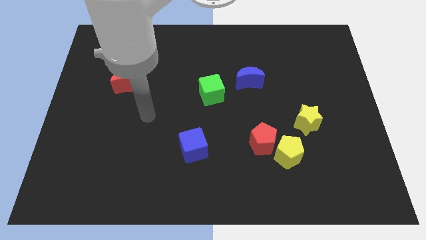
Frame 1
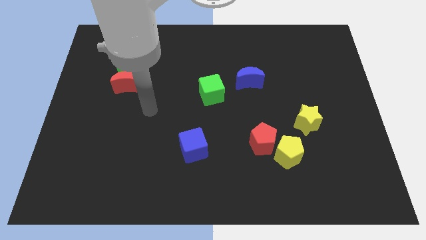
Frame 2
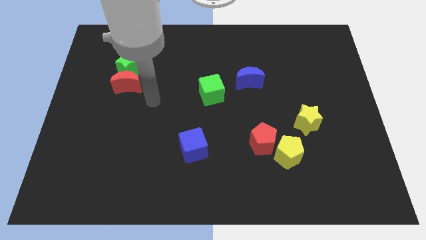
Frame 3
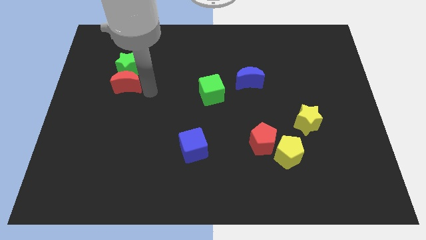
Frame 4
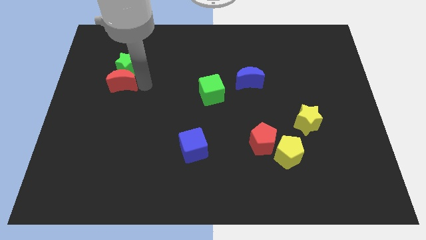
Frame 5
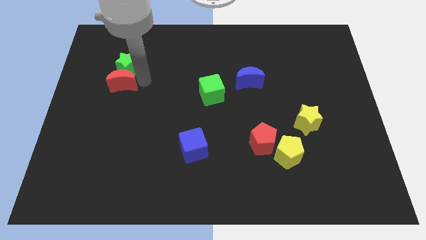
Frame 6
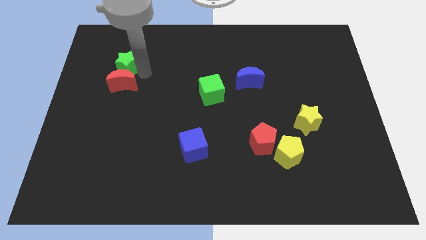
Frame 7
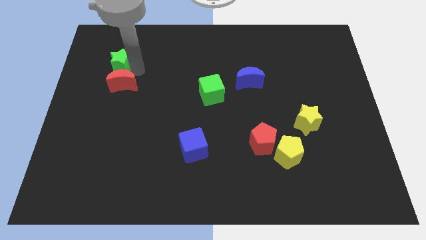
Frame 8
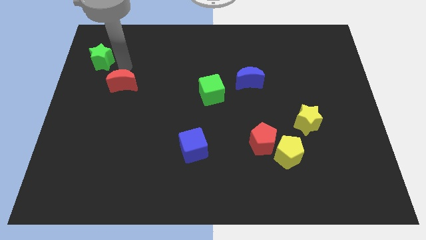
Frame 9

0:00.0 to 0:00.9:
pull the red moon apart from the green star

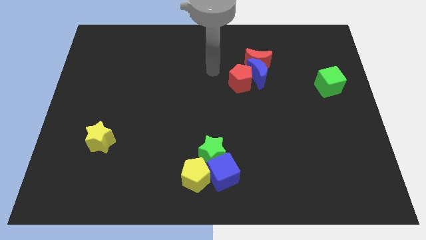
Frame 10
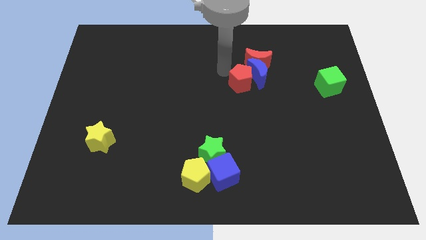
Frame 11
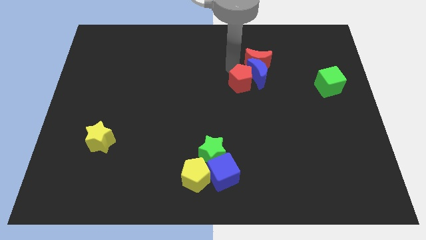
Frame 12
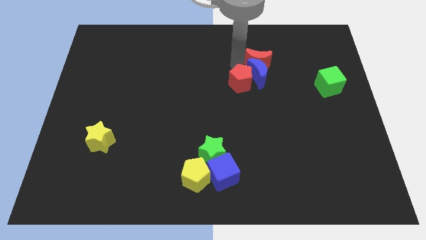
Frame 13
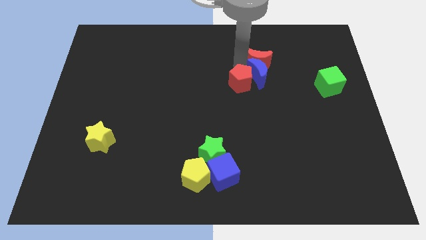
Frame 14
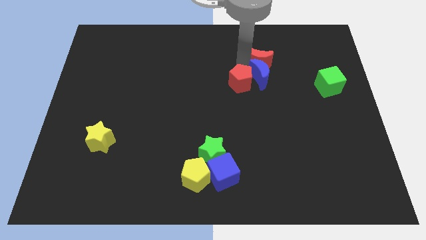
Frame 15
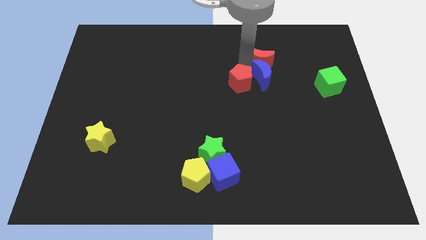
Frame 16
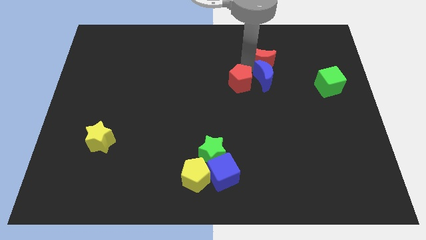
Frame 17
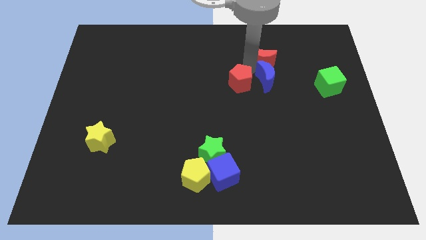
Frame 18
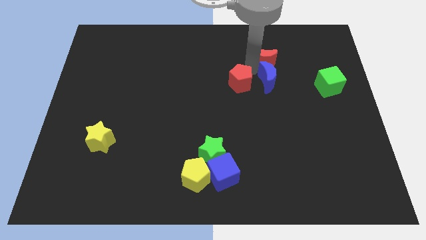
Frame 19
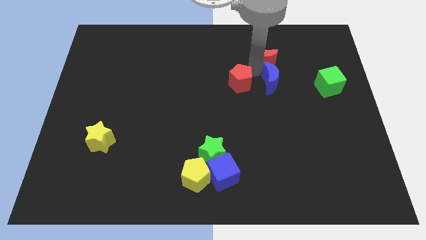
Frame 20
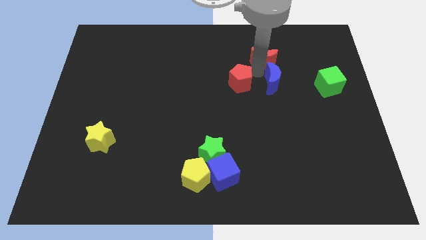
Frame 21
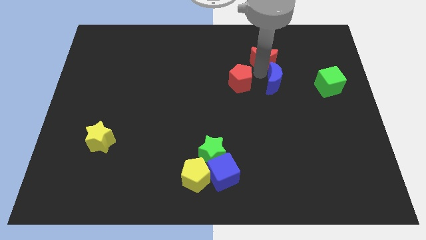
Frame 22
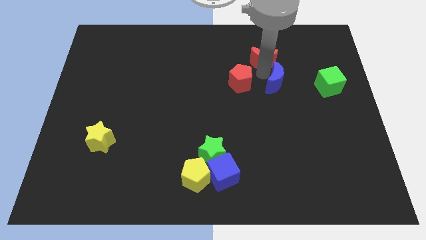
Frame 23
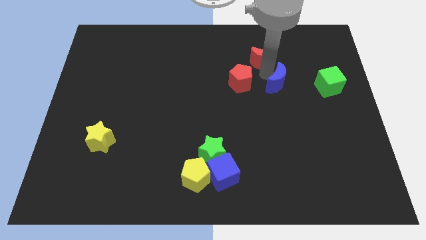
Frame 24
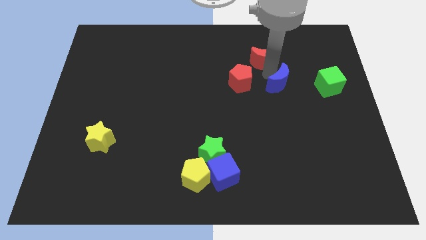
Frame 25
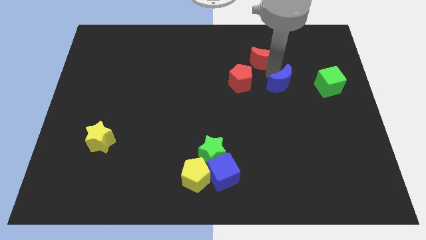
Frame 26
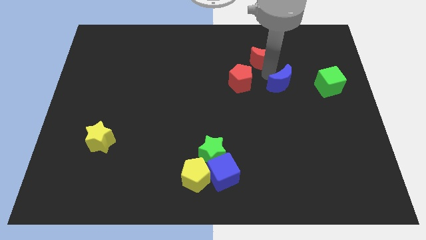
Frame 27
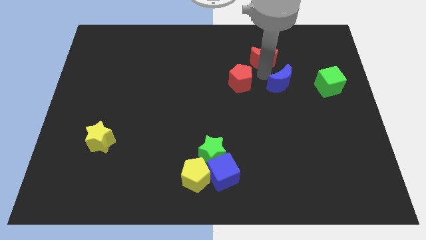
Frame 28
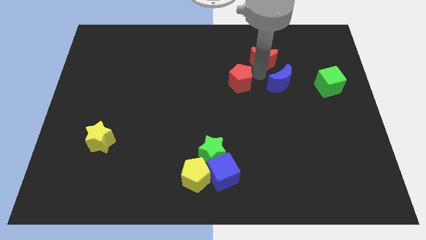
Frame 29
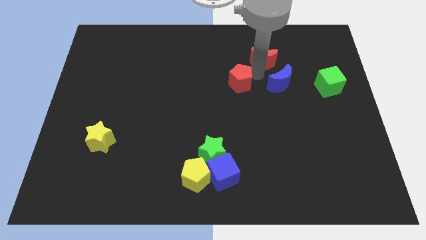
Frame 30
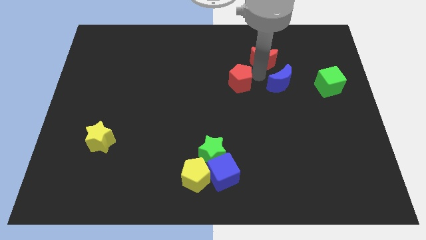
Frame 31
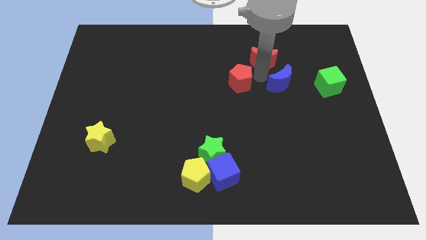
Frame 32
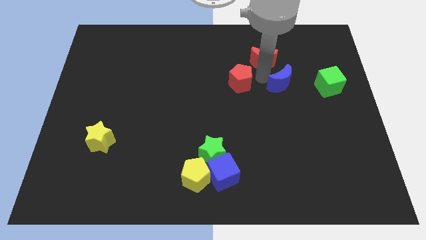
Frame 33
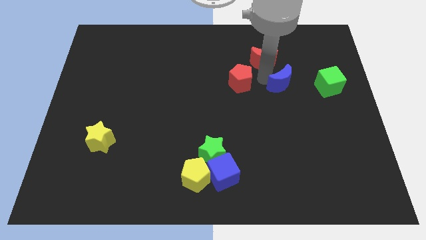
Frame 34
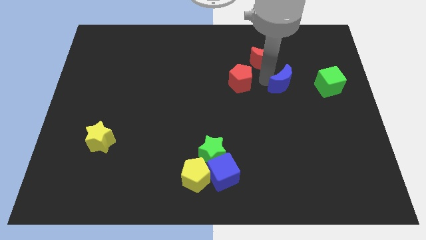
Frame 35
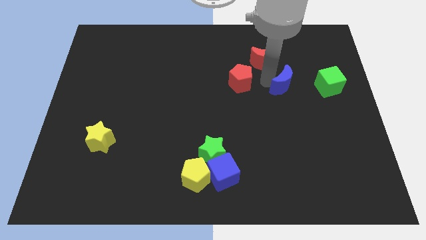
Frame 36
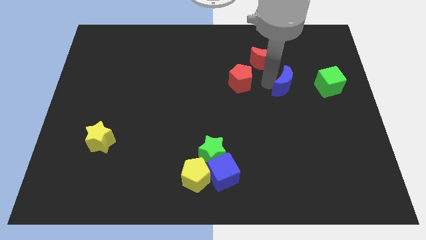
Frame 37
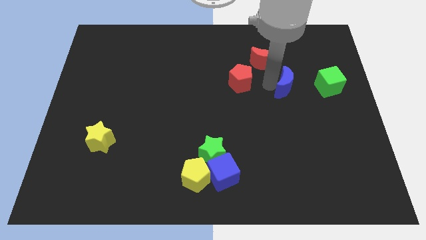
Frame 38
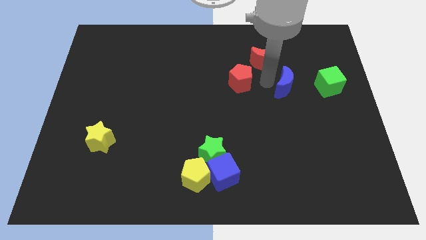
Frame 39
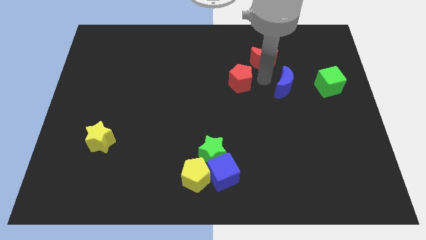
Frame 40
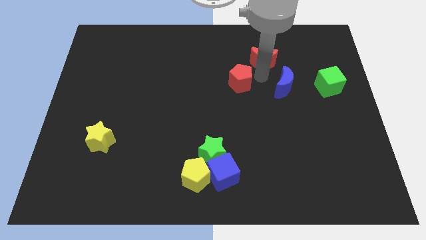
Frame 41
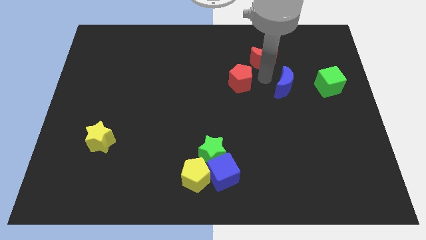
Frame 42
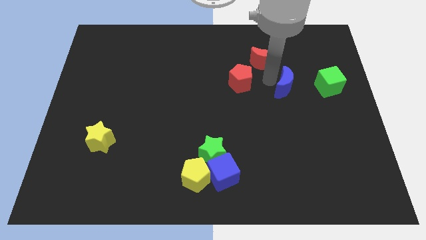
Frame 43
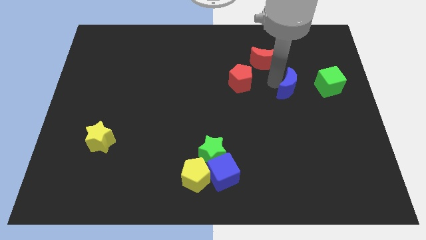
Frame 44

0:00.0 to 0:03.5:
pull the blue moon apart from the red moon and red pentagon

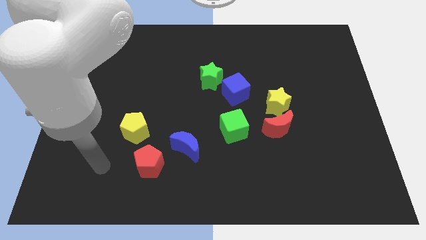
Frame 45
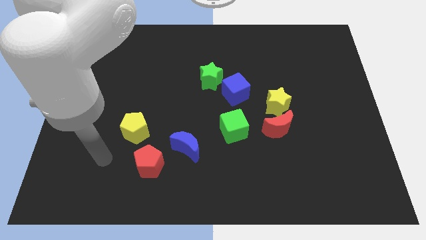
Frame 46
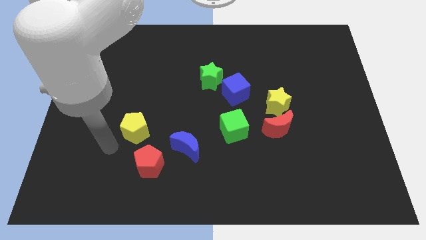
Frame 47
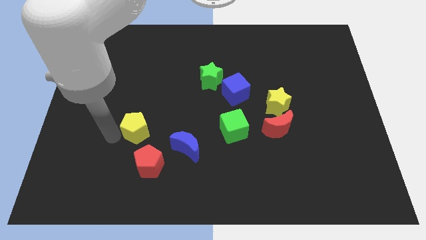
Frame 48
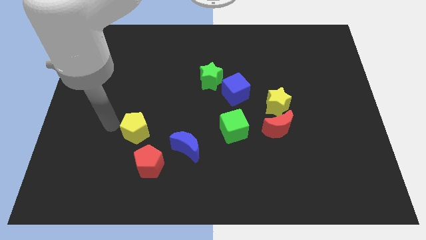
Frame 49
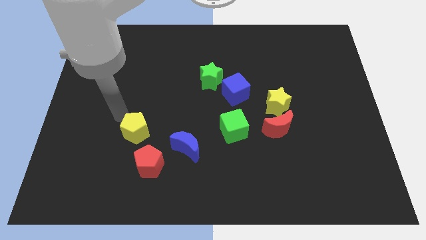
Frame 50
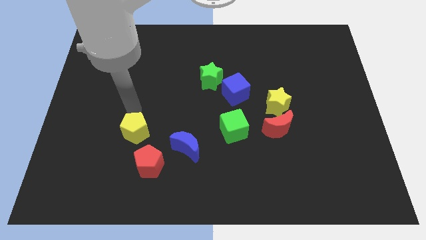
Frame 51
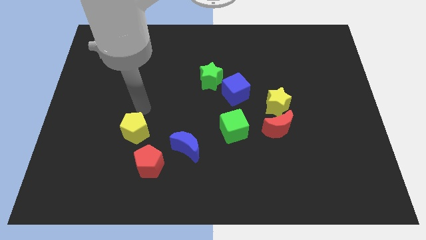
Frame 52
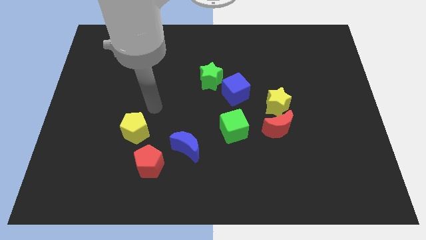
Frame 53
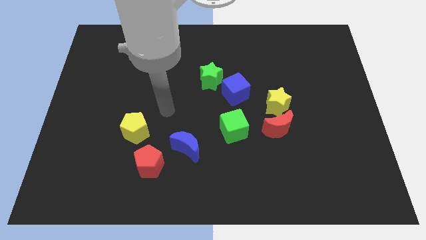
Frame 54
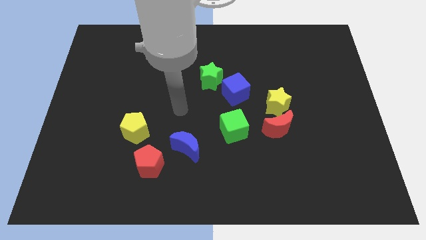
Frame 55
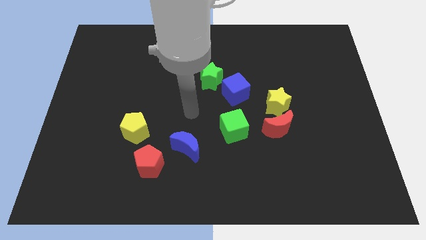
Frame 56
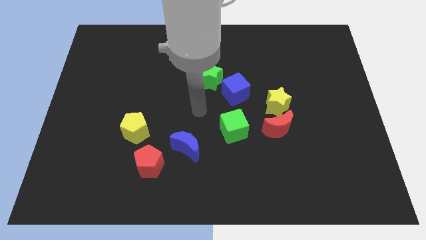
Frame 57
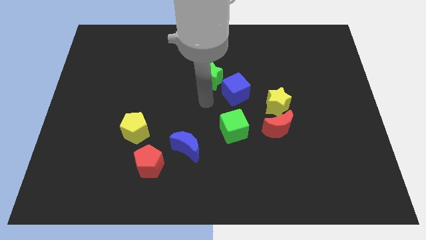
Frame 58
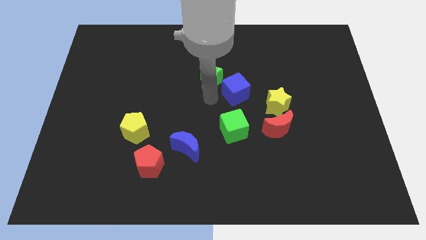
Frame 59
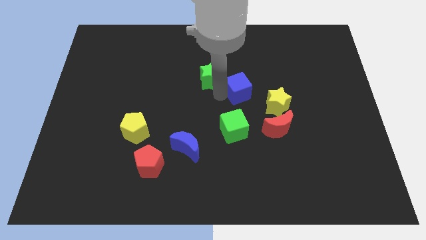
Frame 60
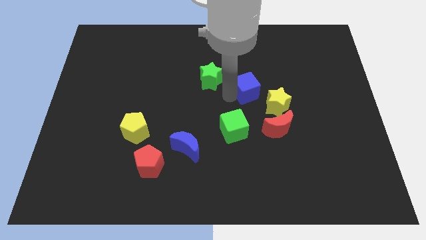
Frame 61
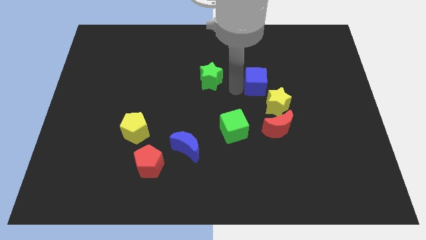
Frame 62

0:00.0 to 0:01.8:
move the green star away from the blue cube

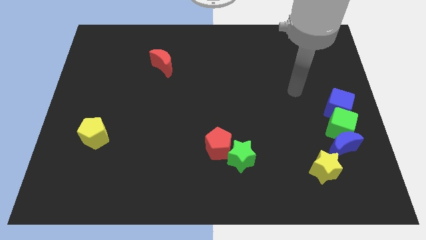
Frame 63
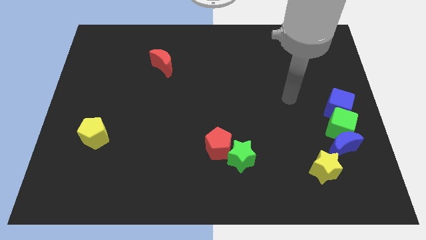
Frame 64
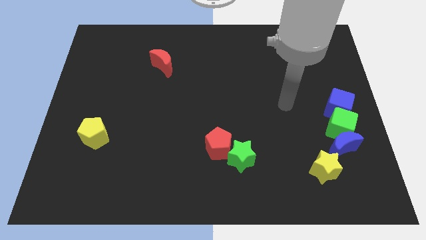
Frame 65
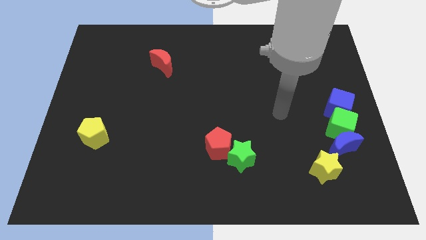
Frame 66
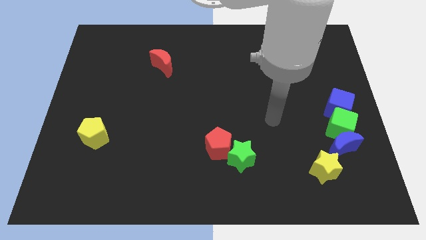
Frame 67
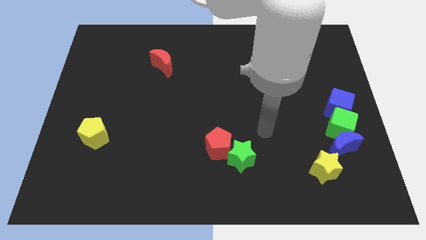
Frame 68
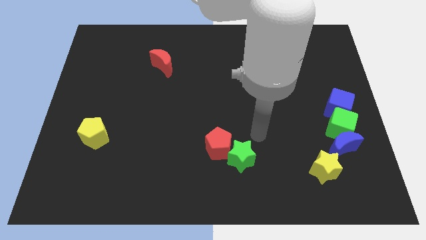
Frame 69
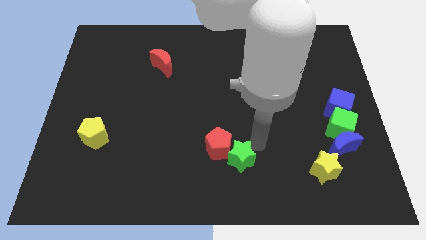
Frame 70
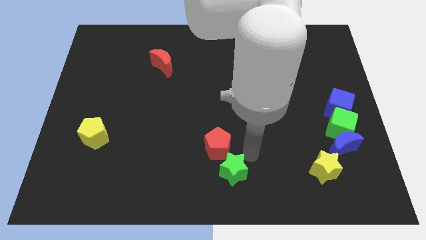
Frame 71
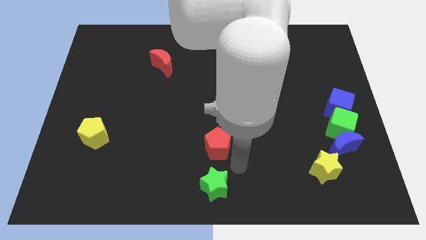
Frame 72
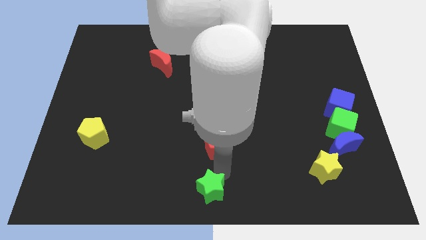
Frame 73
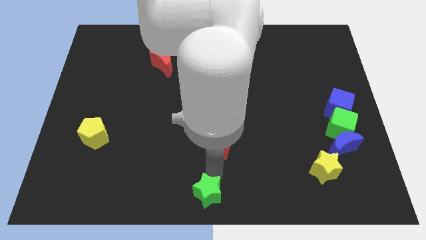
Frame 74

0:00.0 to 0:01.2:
pull the red pentagon apart from the green star

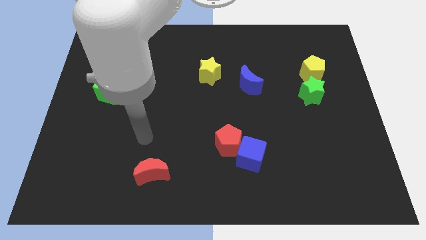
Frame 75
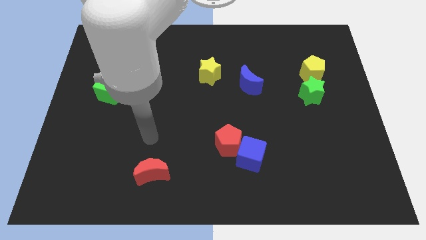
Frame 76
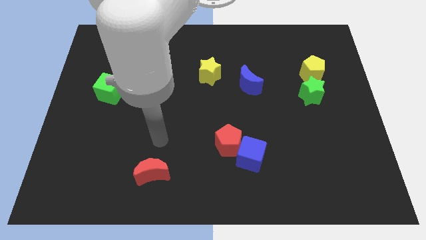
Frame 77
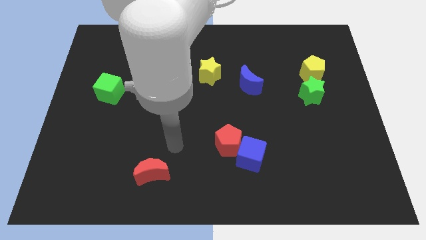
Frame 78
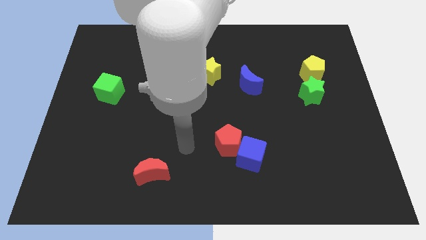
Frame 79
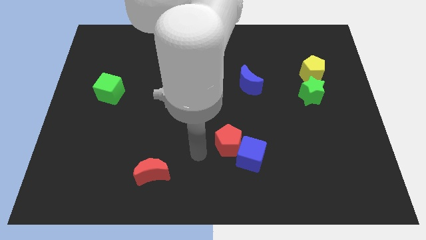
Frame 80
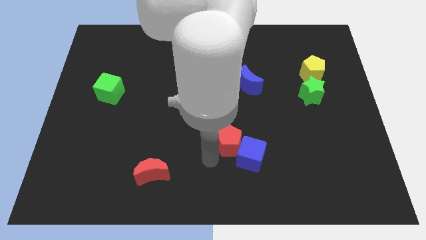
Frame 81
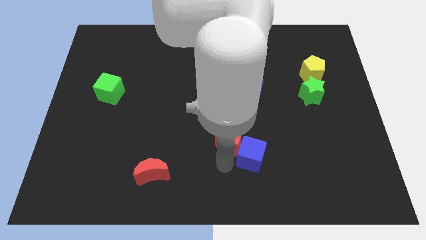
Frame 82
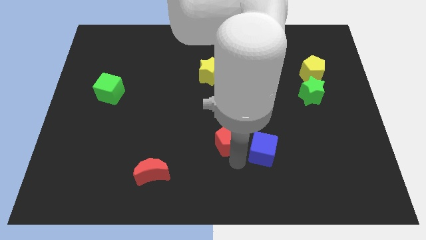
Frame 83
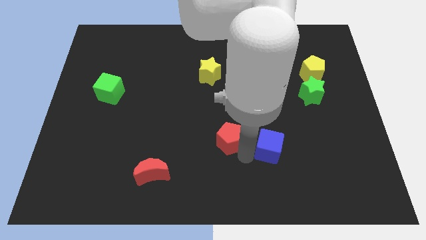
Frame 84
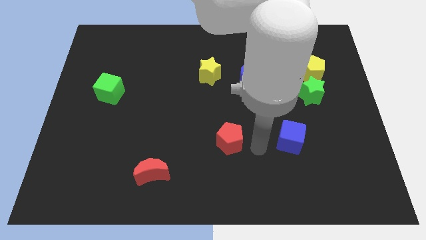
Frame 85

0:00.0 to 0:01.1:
separate the red pentagon from the blue cube

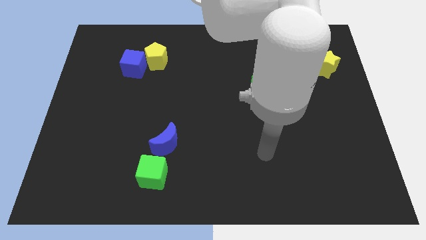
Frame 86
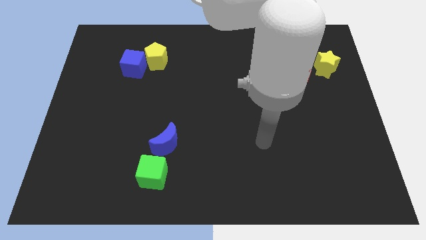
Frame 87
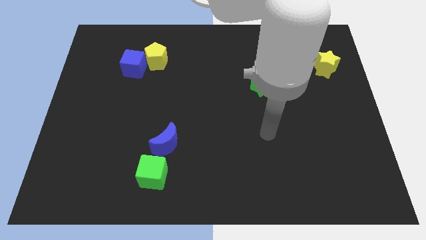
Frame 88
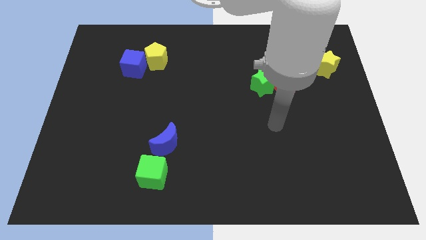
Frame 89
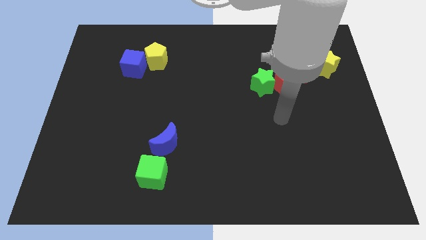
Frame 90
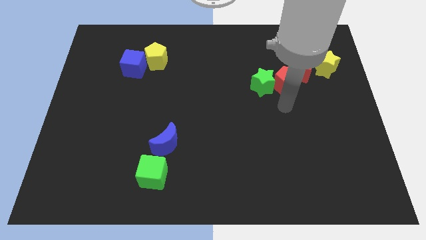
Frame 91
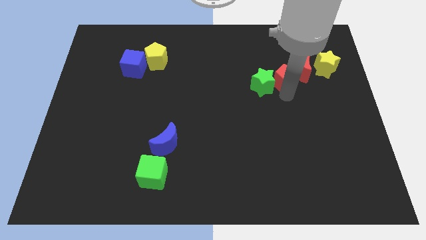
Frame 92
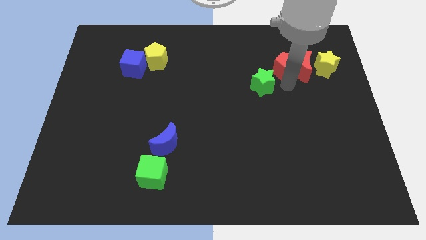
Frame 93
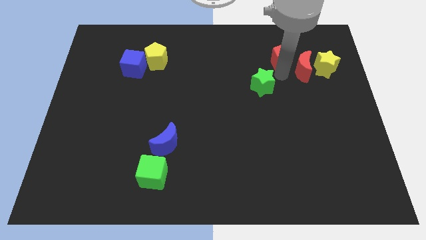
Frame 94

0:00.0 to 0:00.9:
separate the green star from the red pentagon
